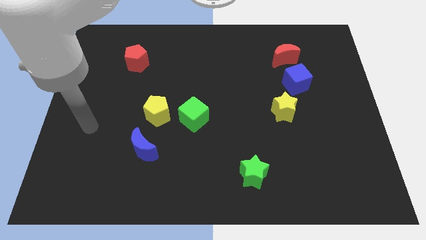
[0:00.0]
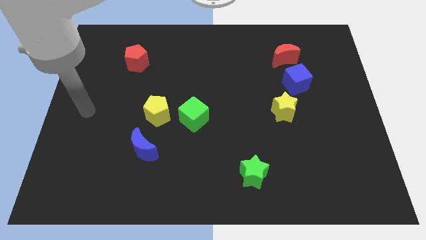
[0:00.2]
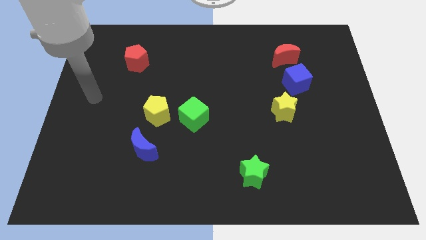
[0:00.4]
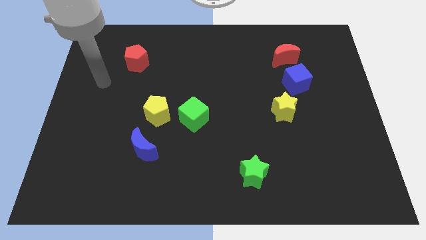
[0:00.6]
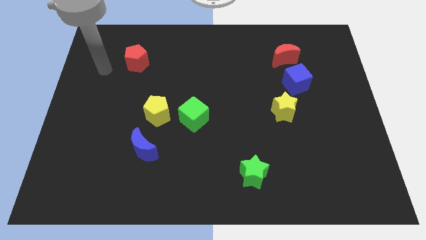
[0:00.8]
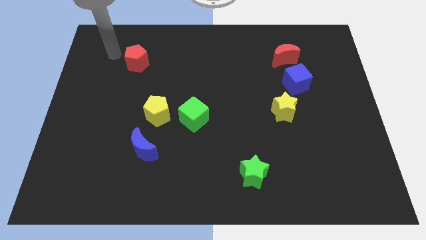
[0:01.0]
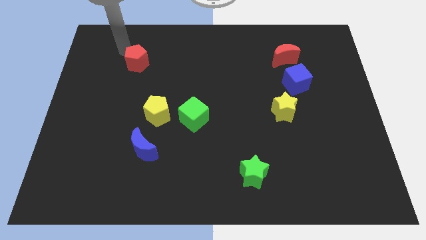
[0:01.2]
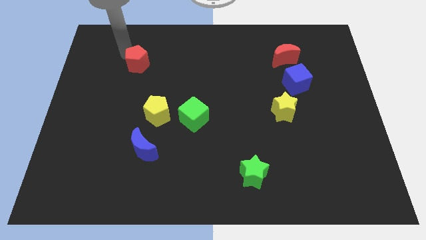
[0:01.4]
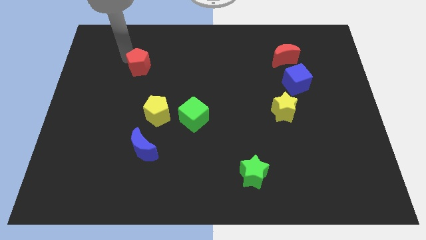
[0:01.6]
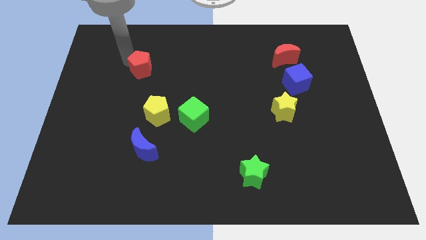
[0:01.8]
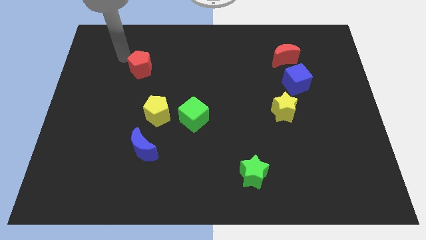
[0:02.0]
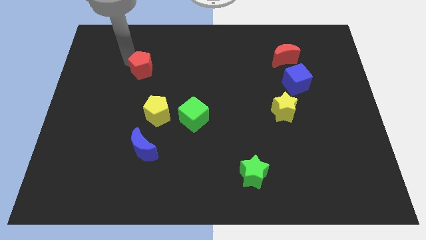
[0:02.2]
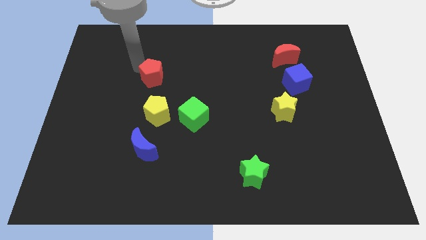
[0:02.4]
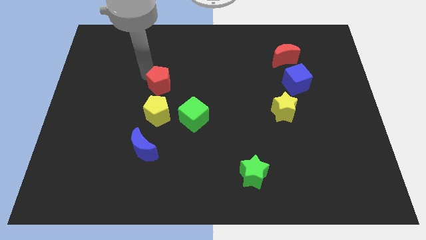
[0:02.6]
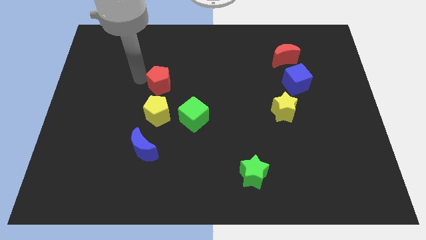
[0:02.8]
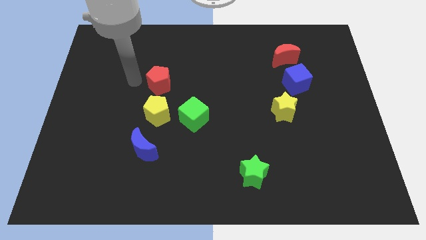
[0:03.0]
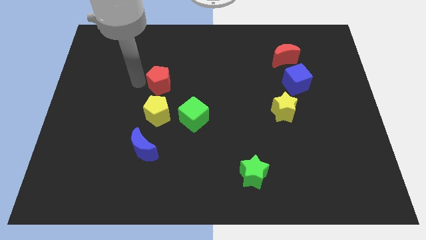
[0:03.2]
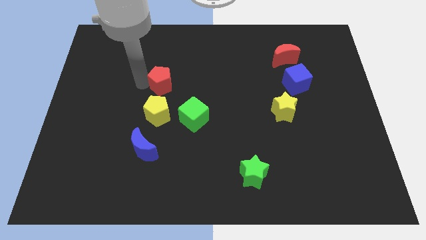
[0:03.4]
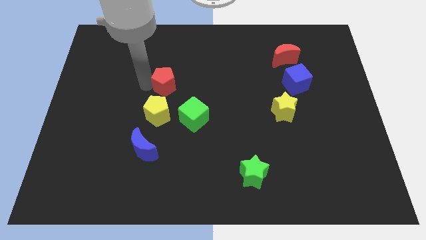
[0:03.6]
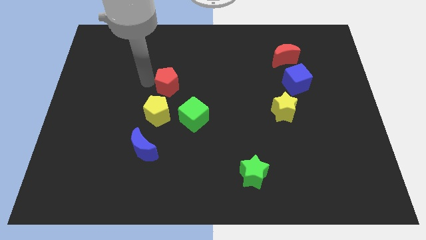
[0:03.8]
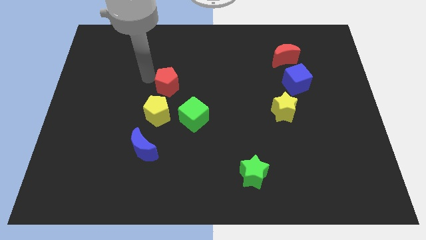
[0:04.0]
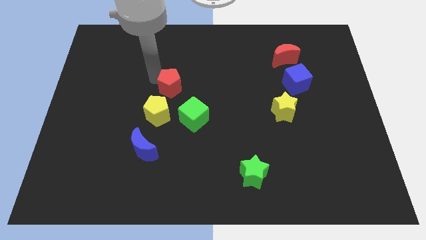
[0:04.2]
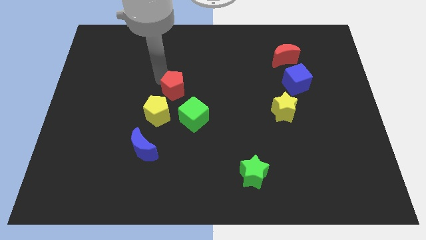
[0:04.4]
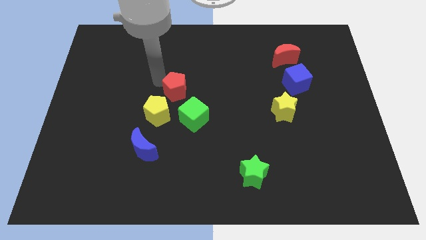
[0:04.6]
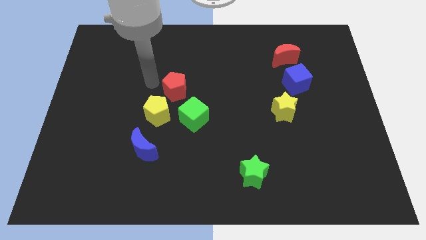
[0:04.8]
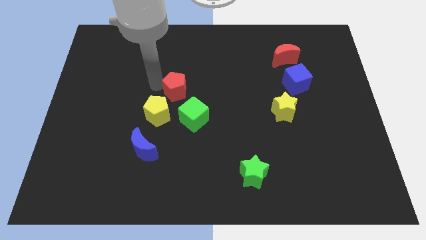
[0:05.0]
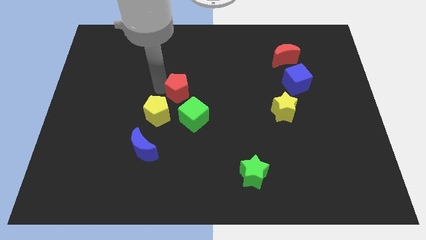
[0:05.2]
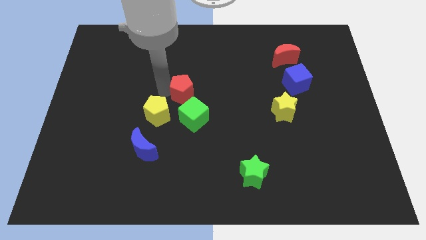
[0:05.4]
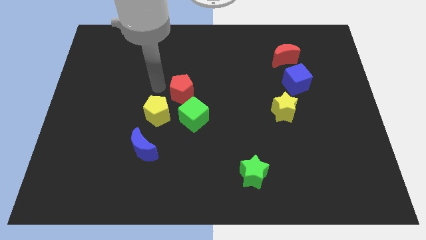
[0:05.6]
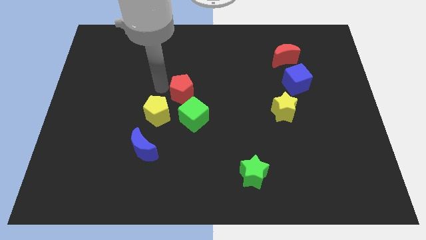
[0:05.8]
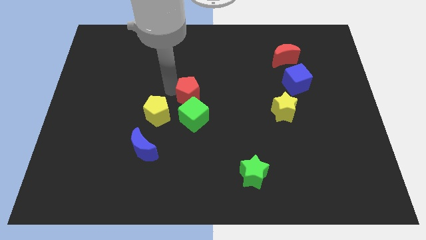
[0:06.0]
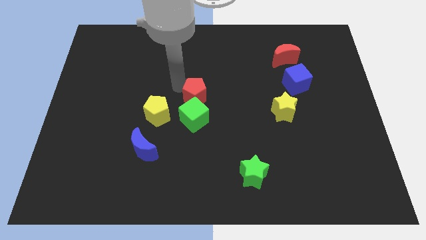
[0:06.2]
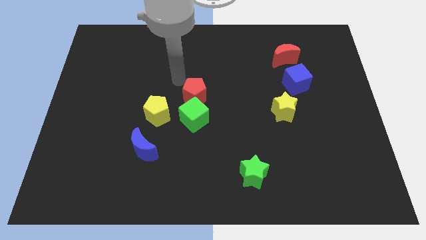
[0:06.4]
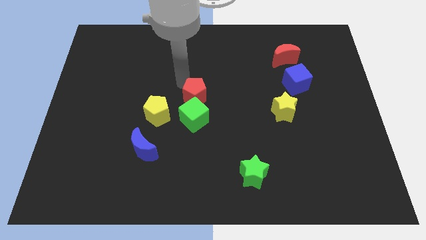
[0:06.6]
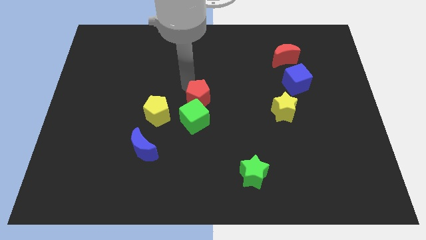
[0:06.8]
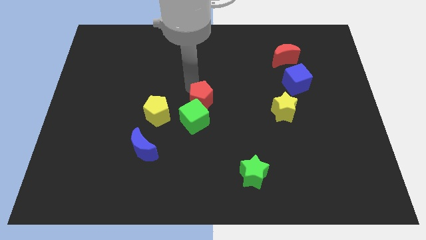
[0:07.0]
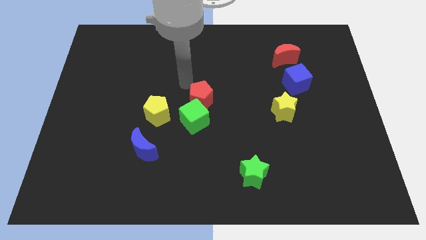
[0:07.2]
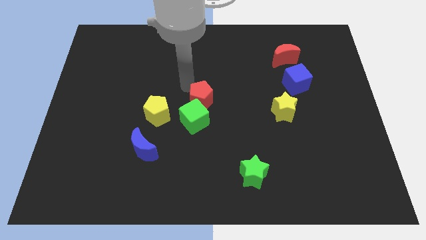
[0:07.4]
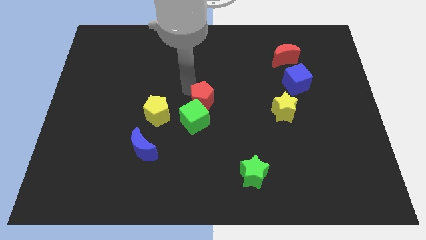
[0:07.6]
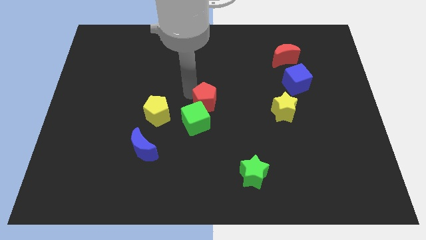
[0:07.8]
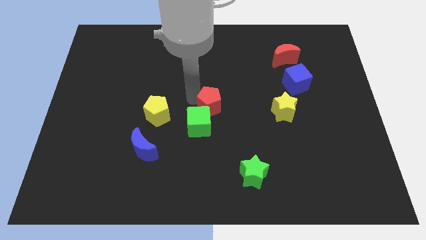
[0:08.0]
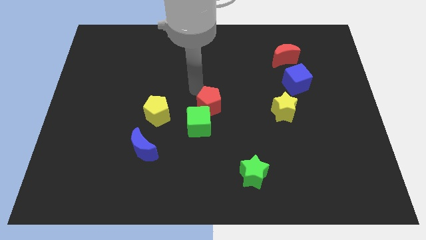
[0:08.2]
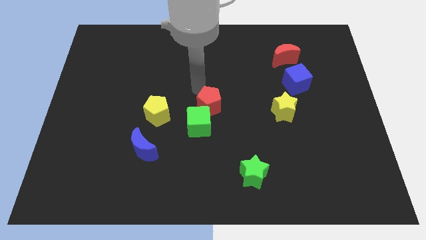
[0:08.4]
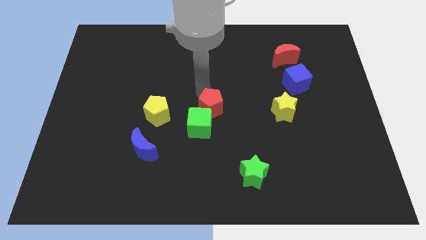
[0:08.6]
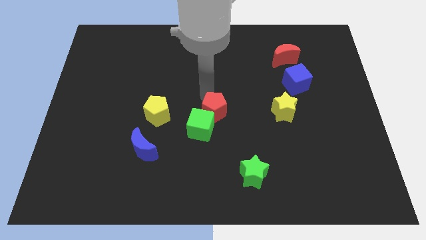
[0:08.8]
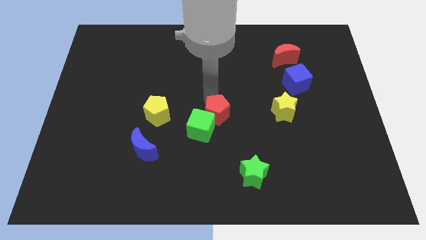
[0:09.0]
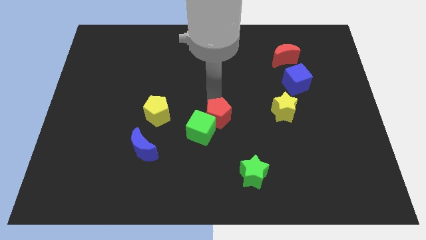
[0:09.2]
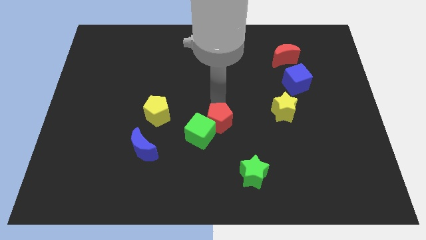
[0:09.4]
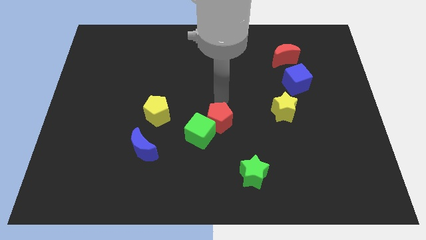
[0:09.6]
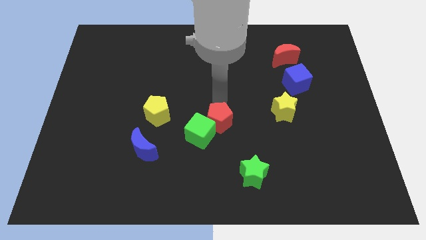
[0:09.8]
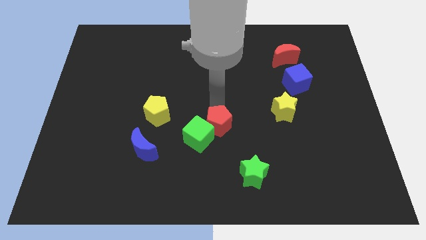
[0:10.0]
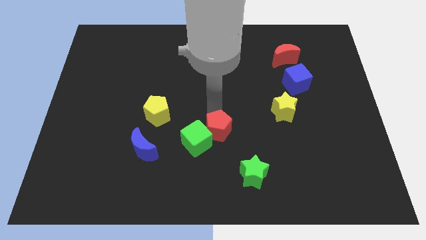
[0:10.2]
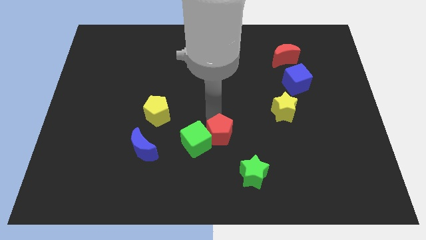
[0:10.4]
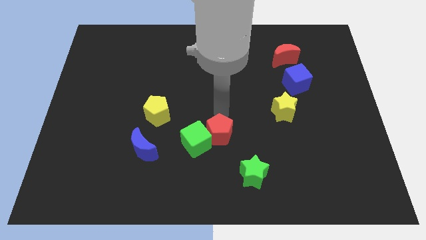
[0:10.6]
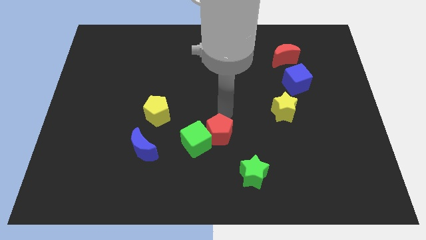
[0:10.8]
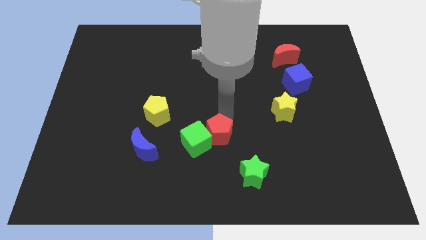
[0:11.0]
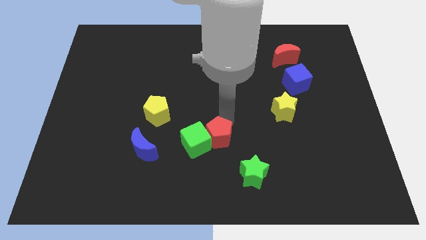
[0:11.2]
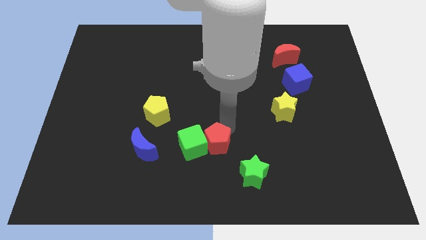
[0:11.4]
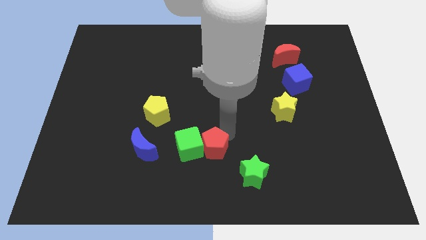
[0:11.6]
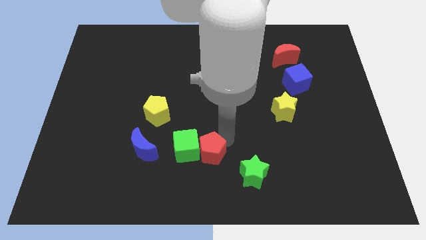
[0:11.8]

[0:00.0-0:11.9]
push the red pentagon to the bottom side

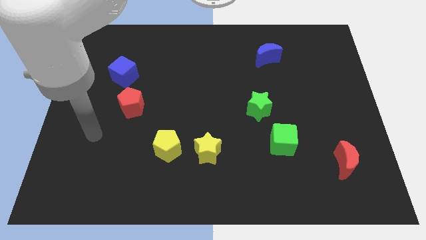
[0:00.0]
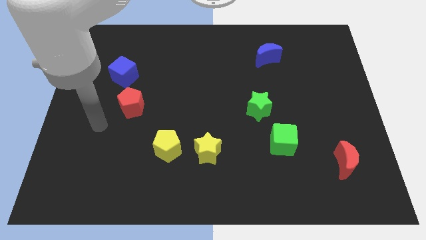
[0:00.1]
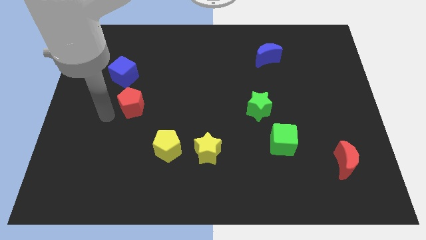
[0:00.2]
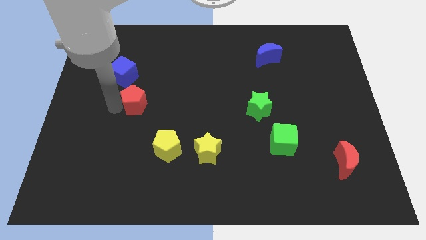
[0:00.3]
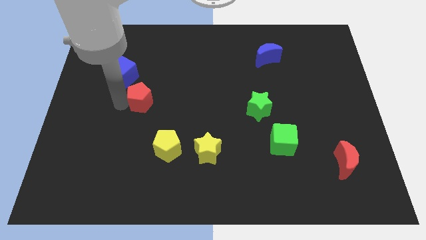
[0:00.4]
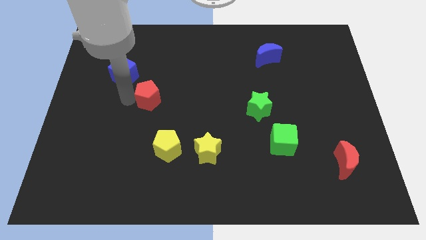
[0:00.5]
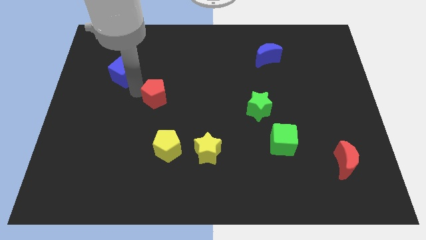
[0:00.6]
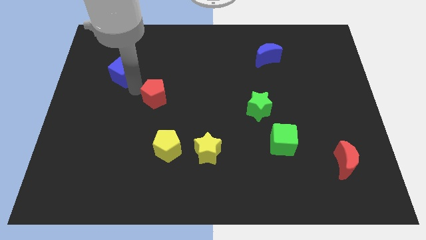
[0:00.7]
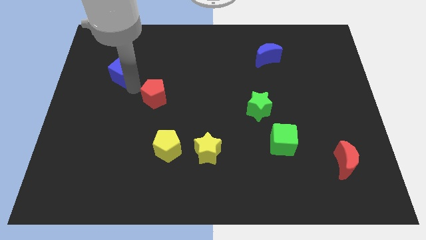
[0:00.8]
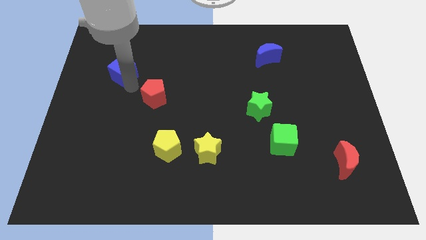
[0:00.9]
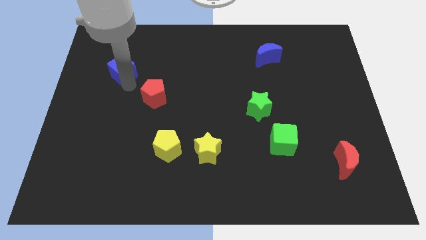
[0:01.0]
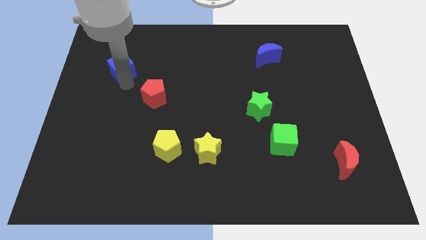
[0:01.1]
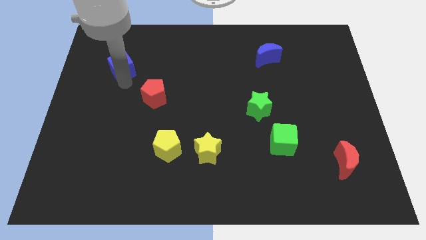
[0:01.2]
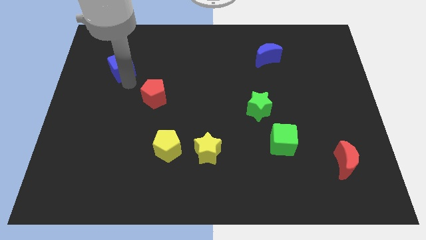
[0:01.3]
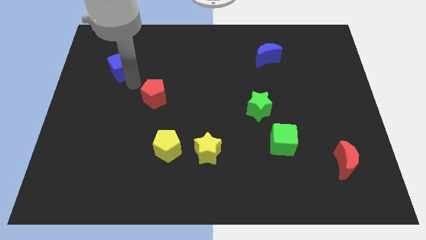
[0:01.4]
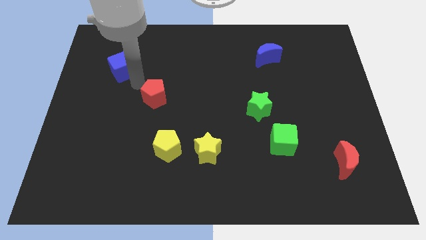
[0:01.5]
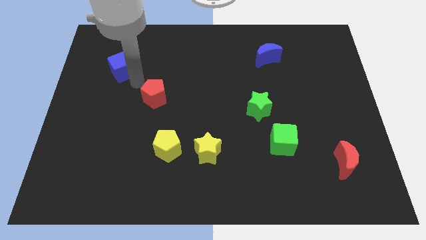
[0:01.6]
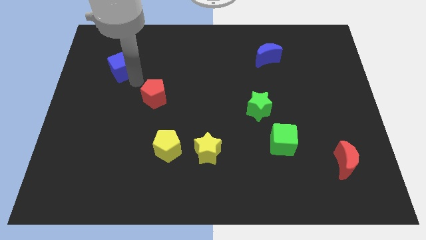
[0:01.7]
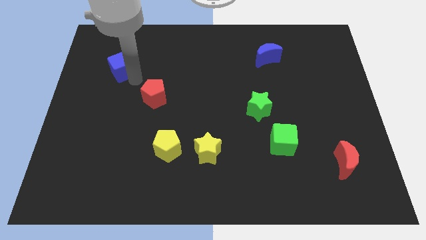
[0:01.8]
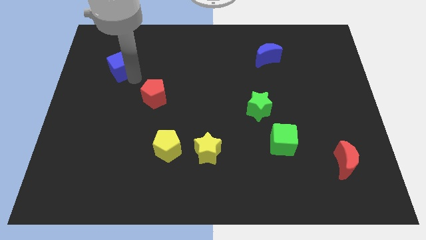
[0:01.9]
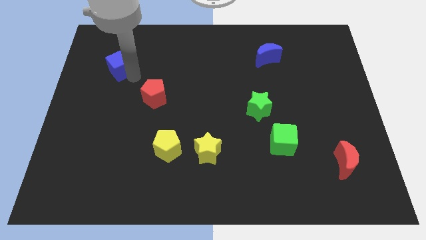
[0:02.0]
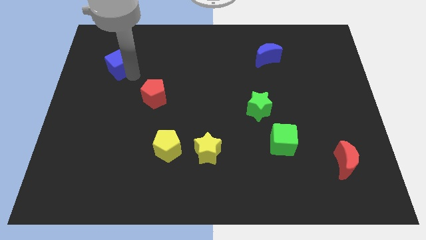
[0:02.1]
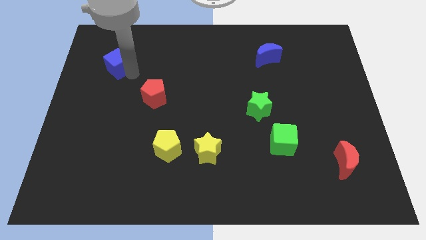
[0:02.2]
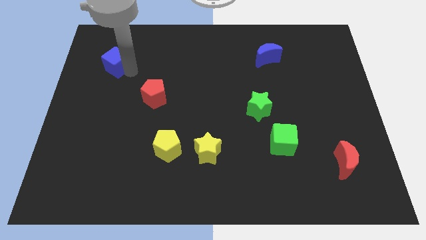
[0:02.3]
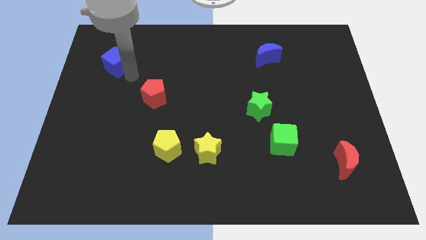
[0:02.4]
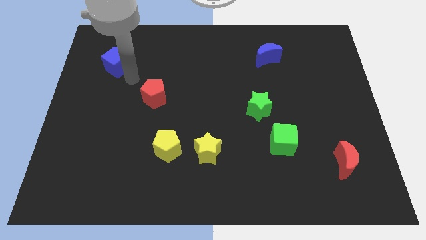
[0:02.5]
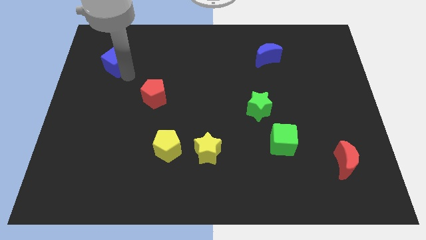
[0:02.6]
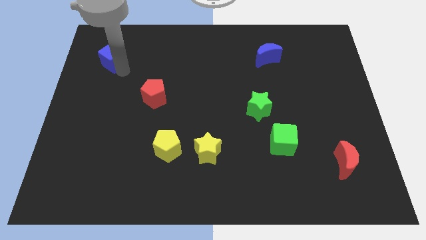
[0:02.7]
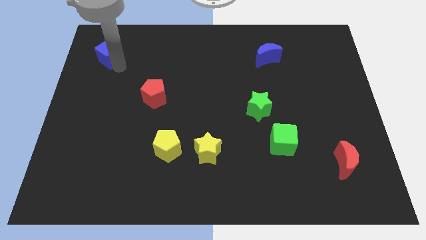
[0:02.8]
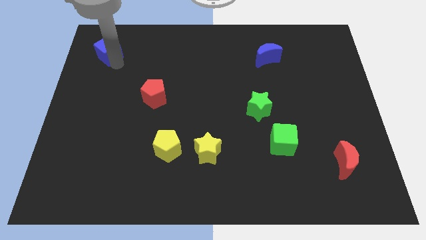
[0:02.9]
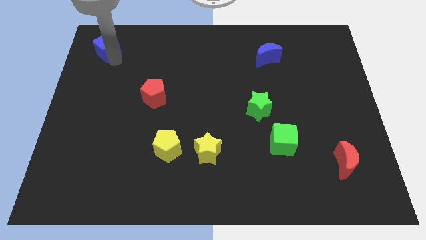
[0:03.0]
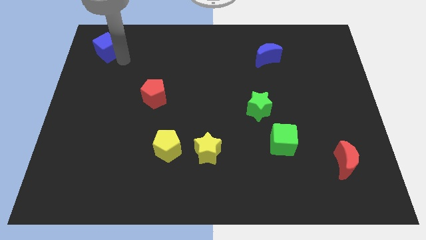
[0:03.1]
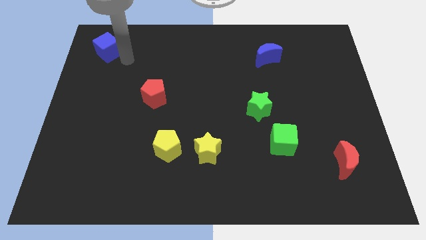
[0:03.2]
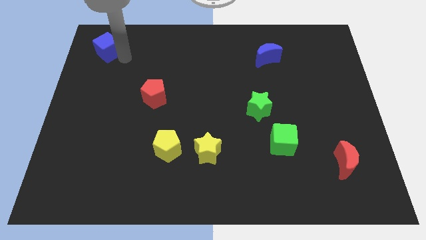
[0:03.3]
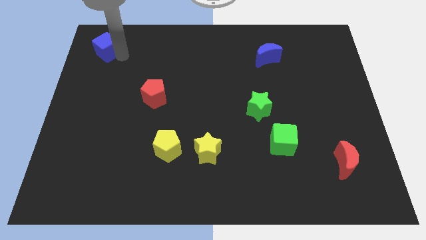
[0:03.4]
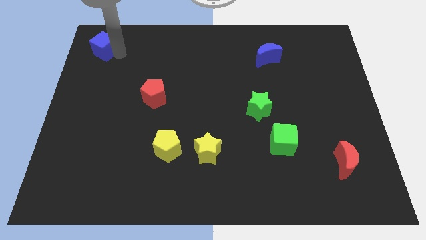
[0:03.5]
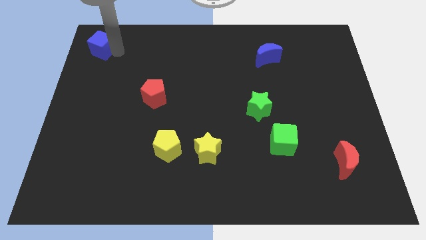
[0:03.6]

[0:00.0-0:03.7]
put the blue cube to the top left
